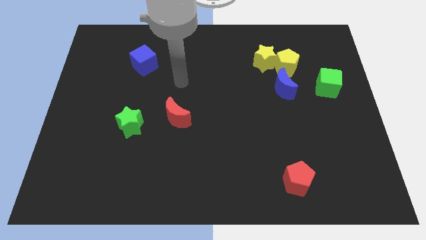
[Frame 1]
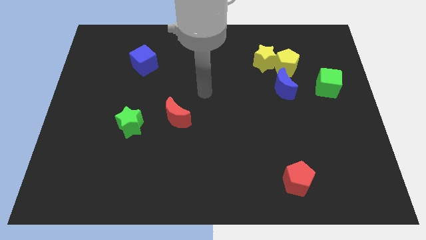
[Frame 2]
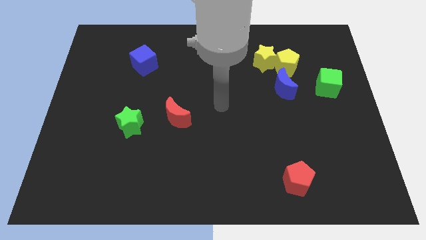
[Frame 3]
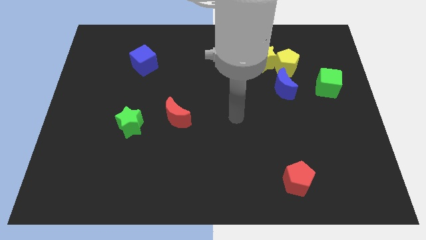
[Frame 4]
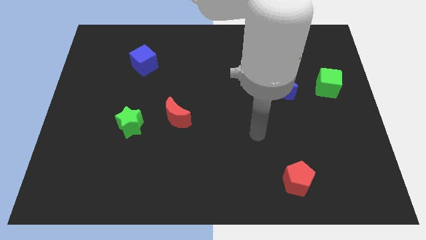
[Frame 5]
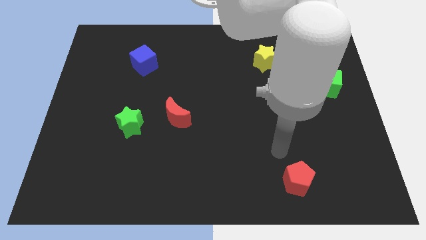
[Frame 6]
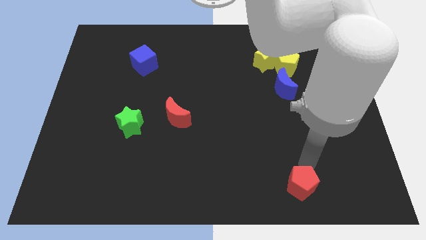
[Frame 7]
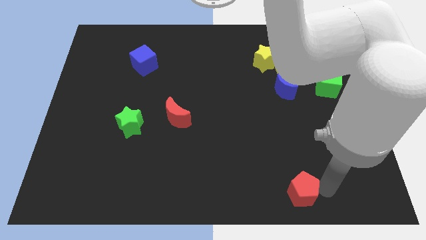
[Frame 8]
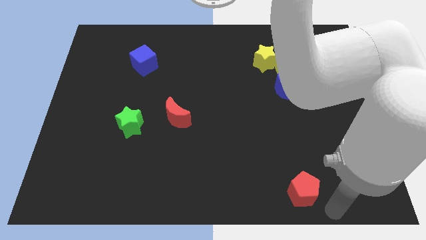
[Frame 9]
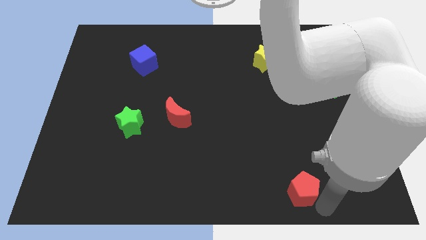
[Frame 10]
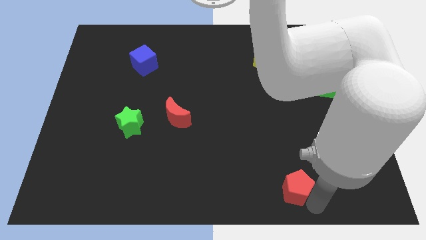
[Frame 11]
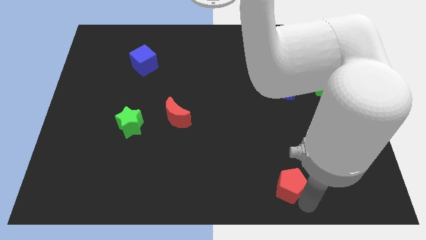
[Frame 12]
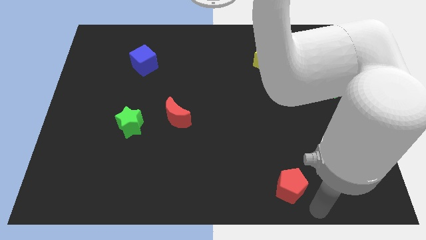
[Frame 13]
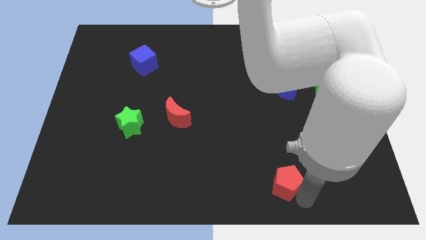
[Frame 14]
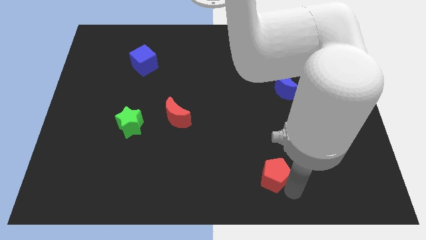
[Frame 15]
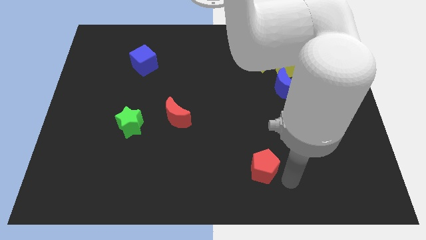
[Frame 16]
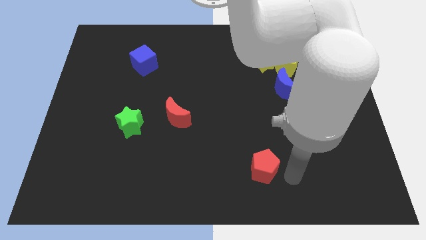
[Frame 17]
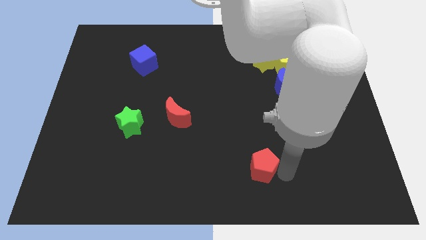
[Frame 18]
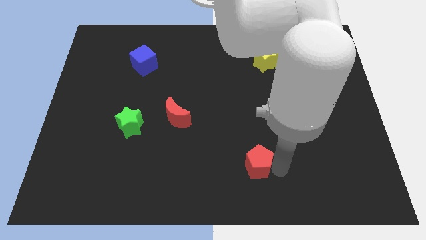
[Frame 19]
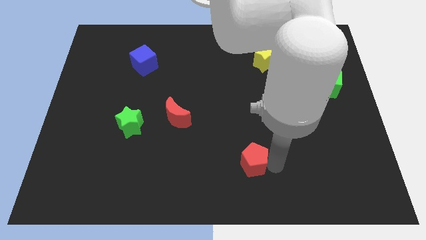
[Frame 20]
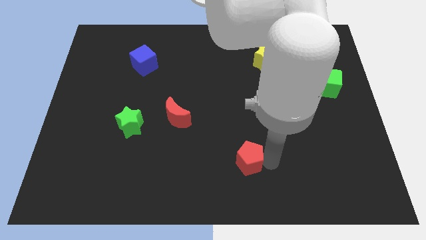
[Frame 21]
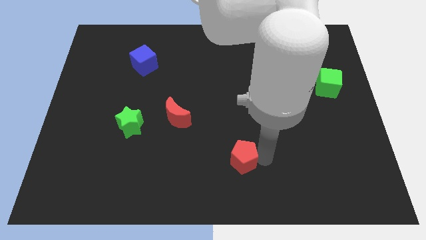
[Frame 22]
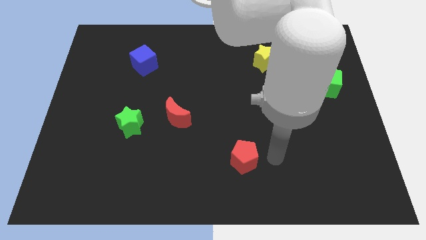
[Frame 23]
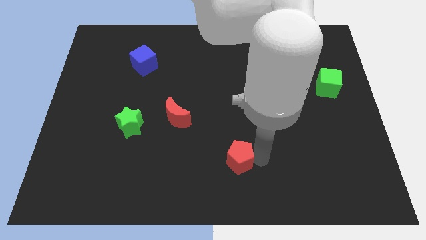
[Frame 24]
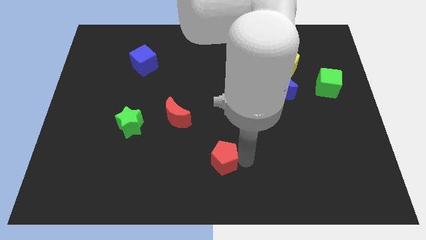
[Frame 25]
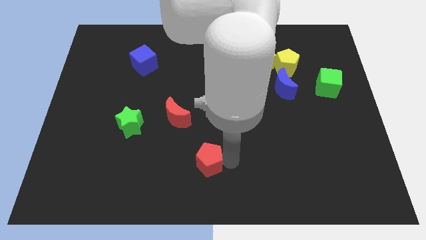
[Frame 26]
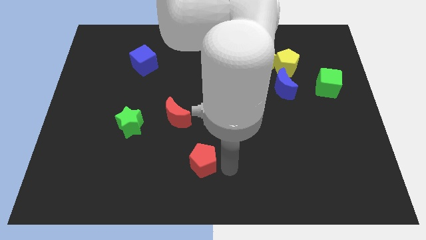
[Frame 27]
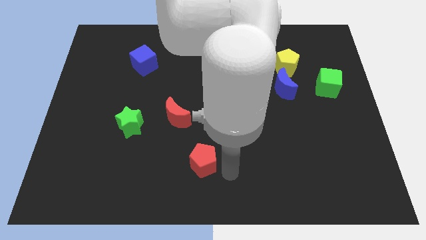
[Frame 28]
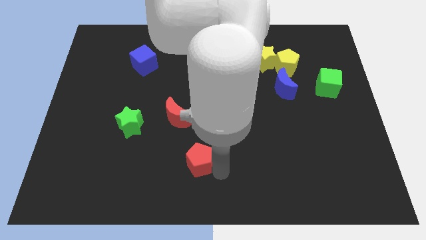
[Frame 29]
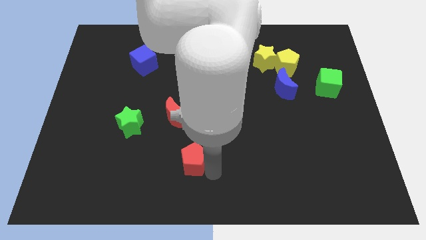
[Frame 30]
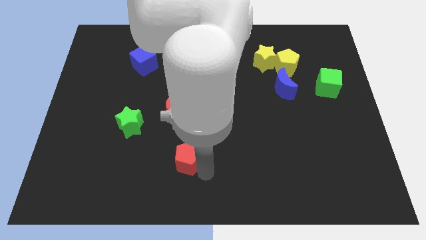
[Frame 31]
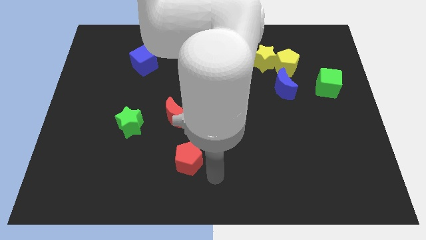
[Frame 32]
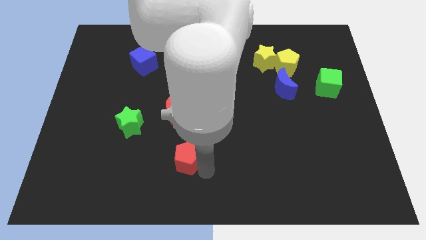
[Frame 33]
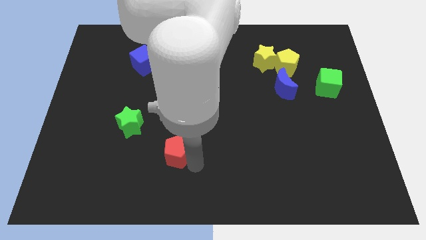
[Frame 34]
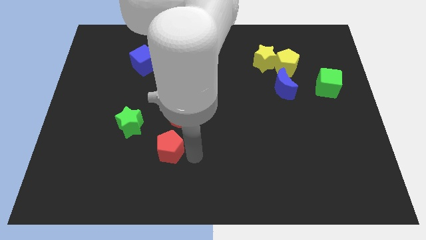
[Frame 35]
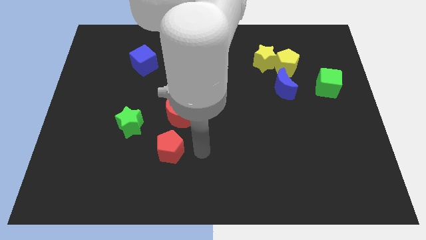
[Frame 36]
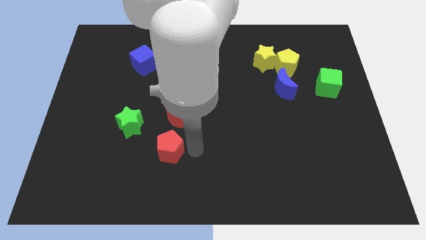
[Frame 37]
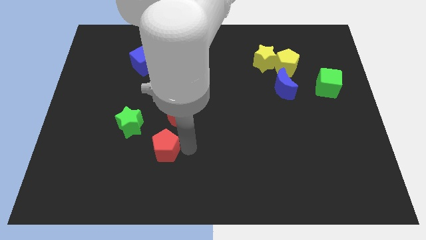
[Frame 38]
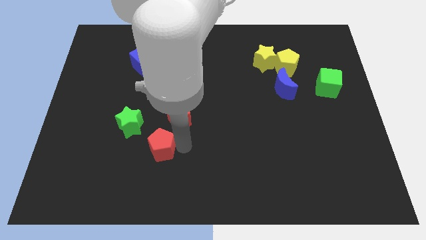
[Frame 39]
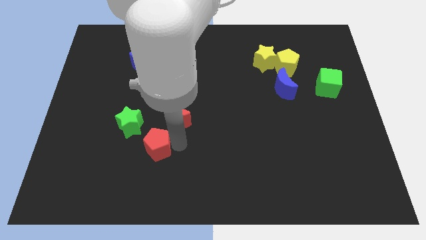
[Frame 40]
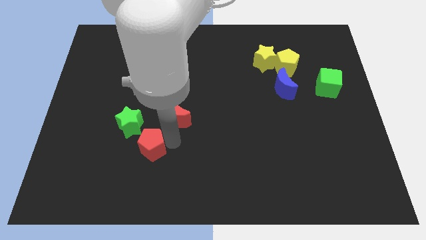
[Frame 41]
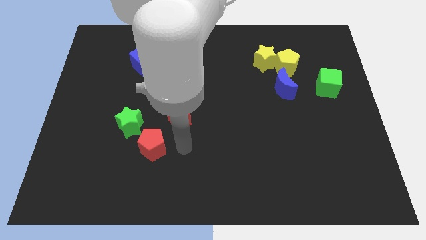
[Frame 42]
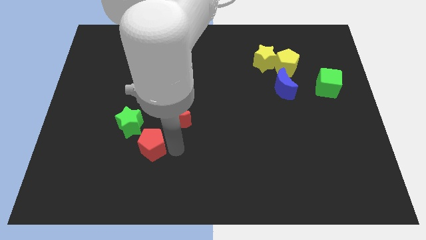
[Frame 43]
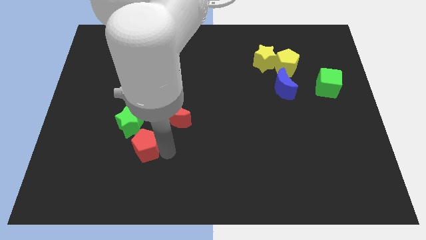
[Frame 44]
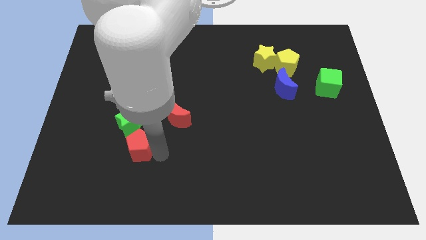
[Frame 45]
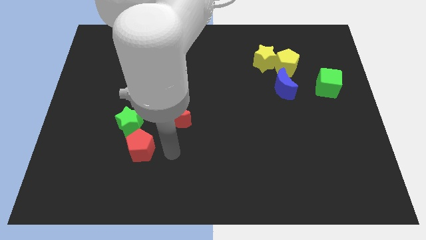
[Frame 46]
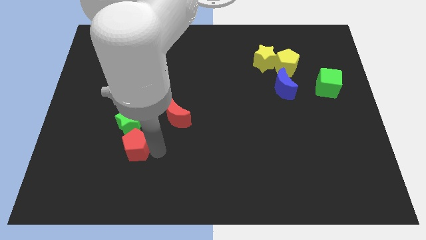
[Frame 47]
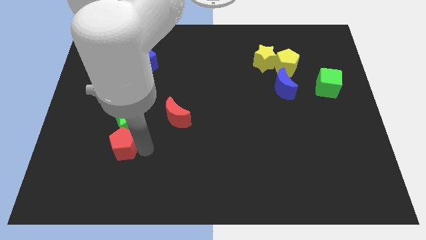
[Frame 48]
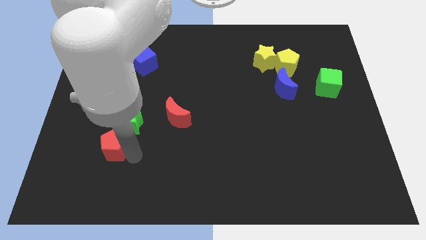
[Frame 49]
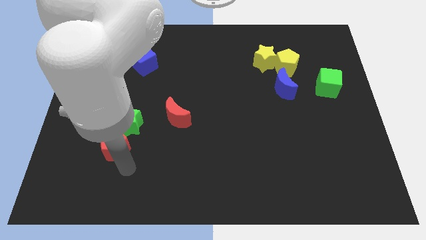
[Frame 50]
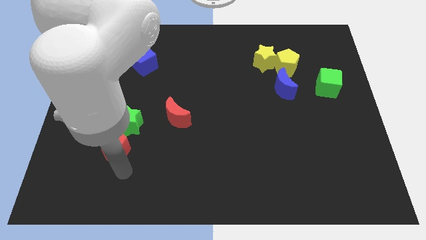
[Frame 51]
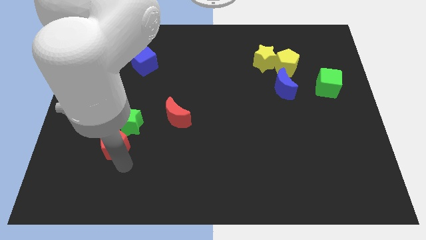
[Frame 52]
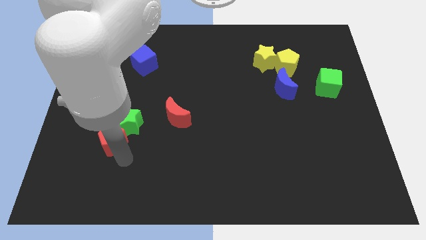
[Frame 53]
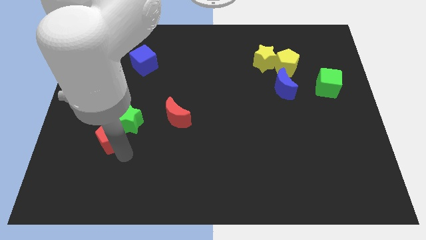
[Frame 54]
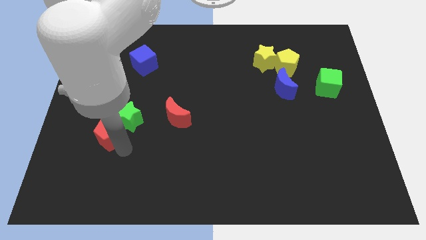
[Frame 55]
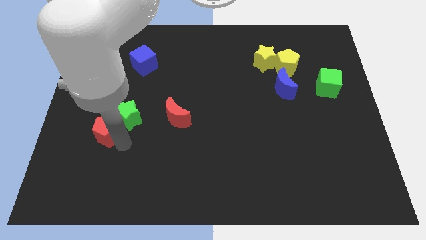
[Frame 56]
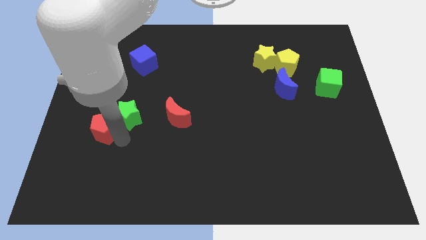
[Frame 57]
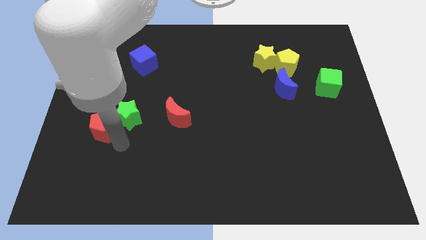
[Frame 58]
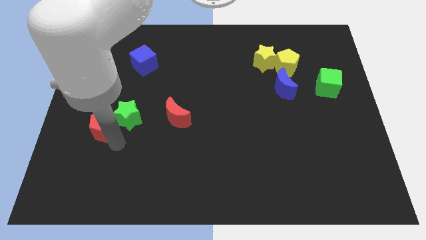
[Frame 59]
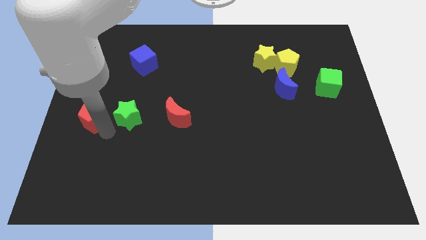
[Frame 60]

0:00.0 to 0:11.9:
move the red pentagon to the center left
